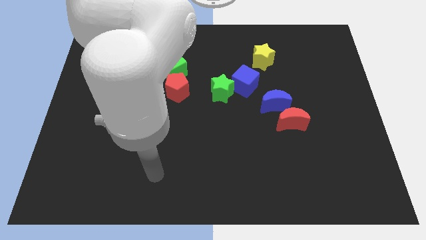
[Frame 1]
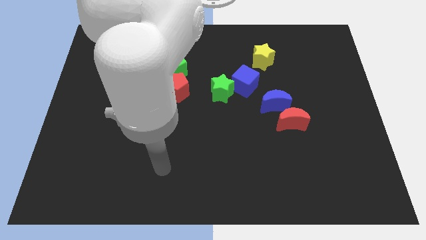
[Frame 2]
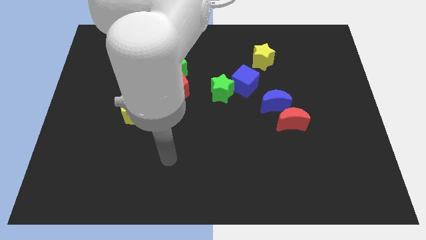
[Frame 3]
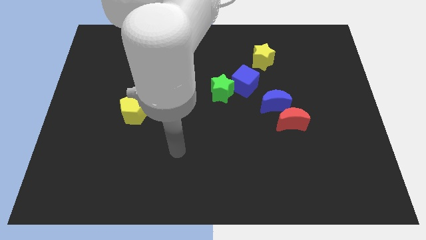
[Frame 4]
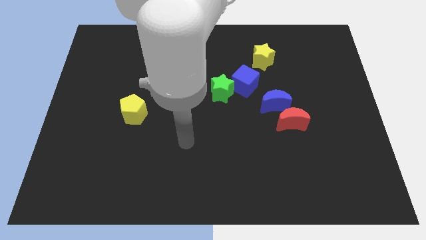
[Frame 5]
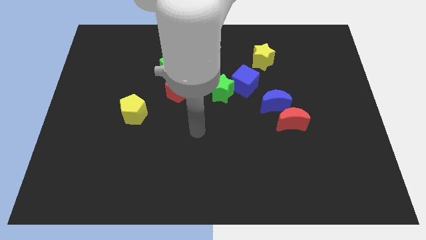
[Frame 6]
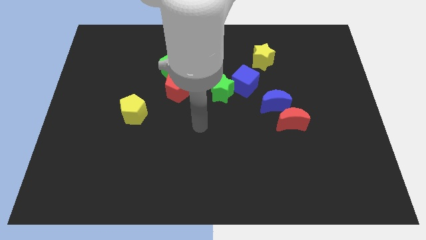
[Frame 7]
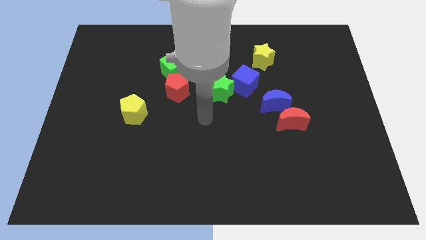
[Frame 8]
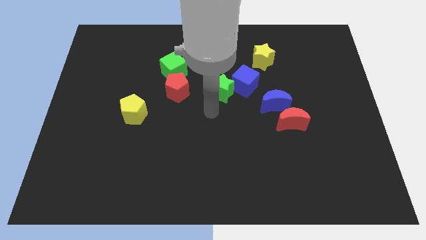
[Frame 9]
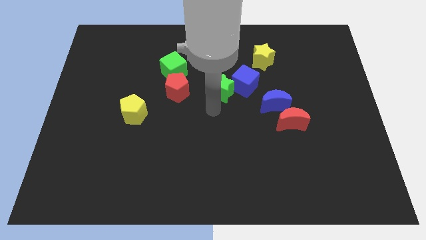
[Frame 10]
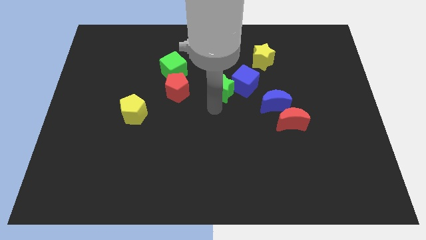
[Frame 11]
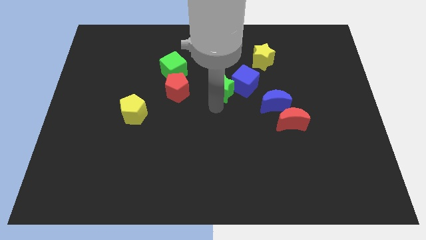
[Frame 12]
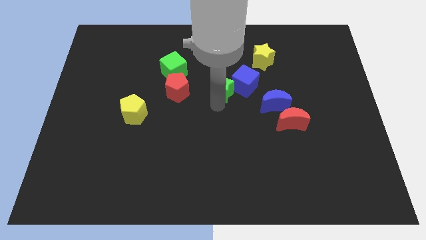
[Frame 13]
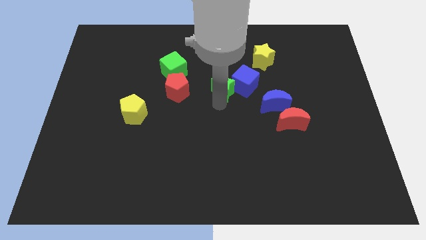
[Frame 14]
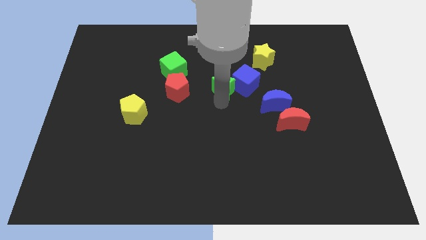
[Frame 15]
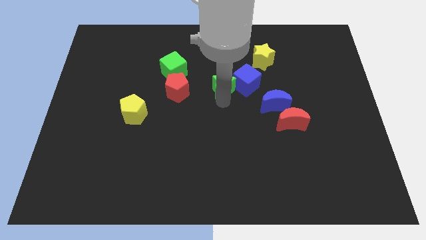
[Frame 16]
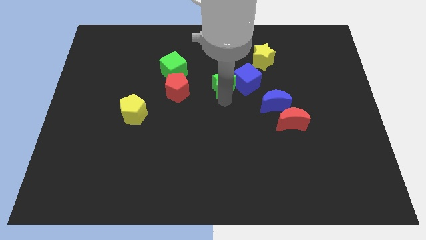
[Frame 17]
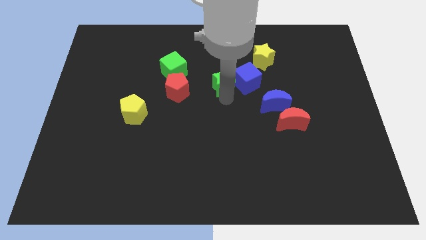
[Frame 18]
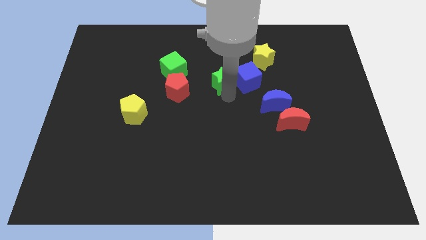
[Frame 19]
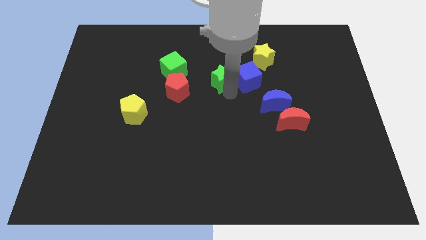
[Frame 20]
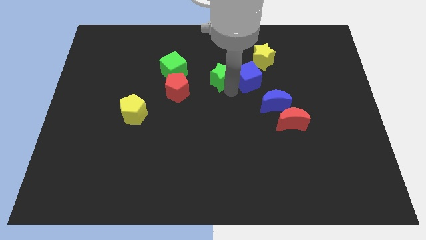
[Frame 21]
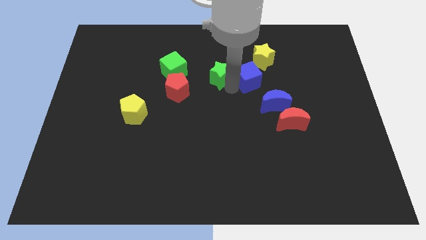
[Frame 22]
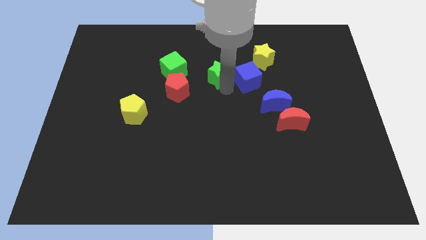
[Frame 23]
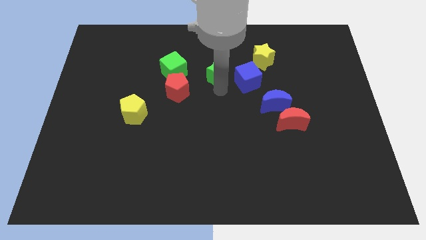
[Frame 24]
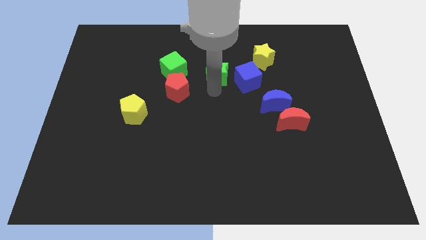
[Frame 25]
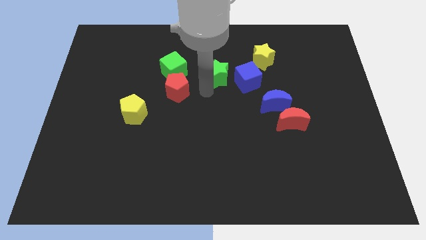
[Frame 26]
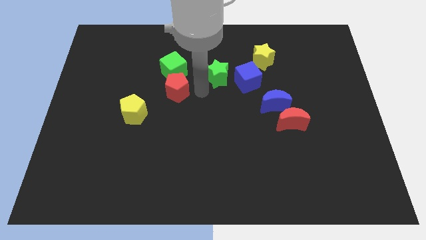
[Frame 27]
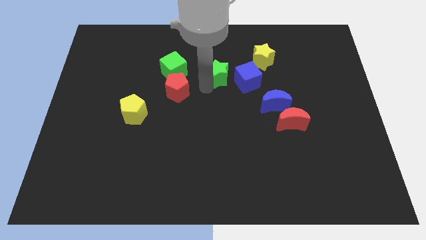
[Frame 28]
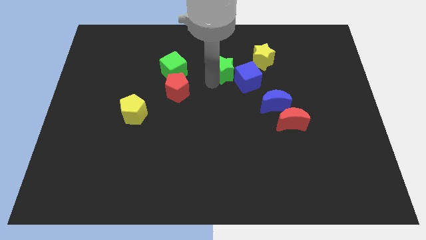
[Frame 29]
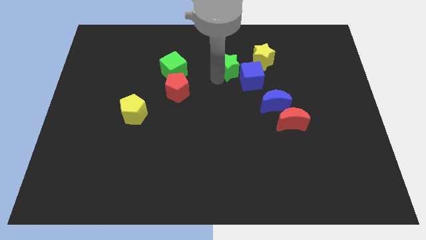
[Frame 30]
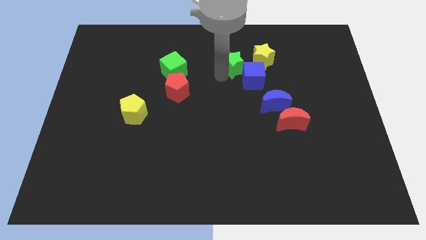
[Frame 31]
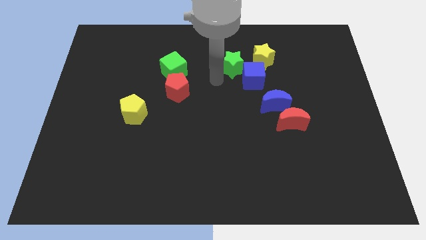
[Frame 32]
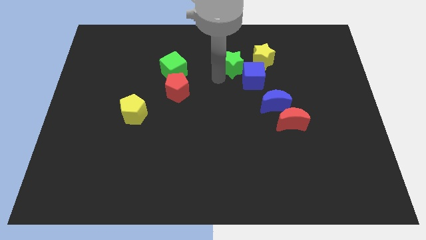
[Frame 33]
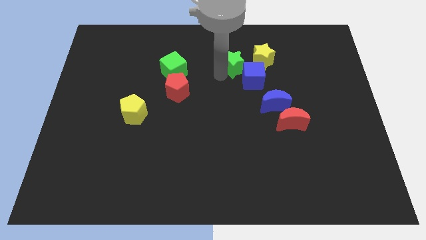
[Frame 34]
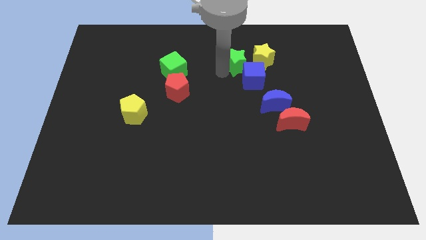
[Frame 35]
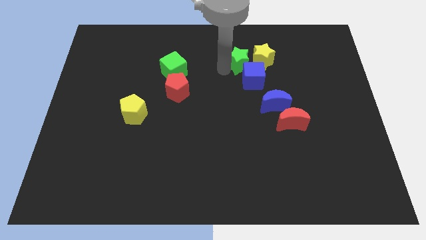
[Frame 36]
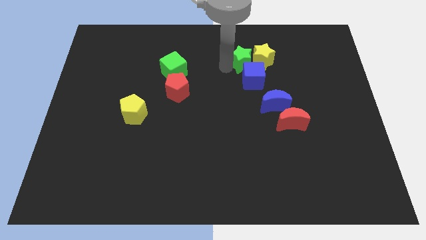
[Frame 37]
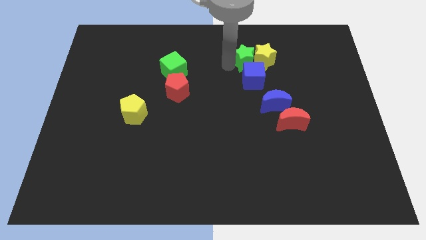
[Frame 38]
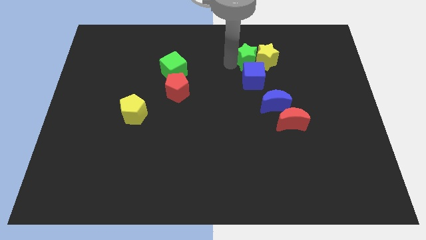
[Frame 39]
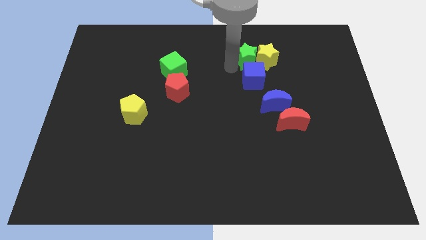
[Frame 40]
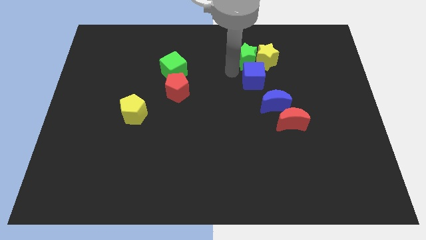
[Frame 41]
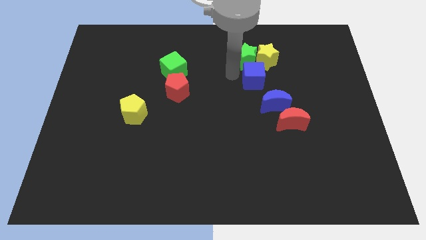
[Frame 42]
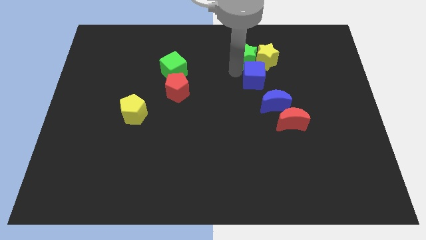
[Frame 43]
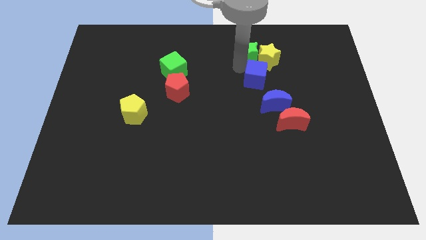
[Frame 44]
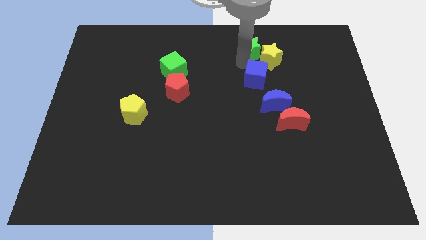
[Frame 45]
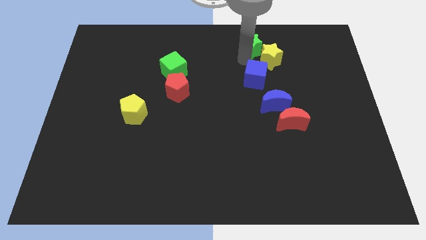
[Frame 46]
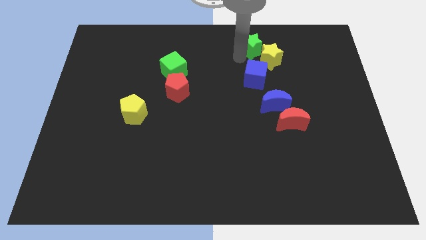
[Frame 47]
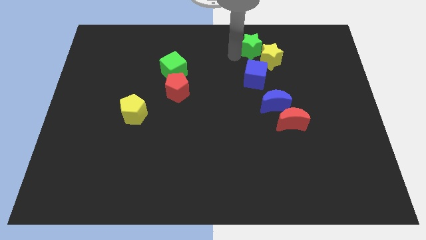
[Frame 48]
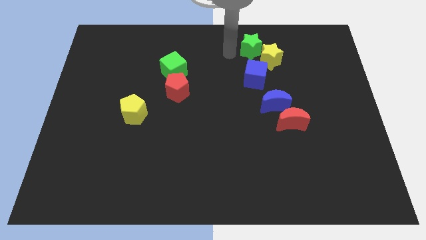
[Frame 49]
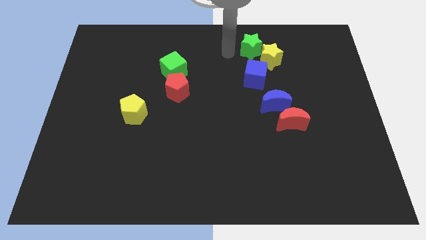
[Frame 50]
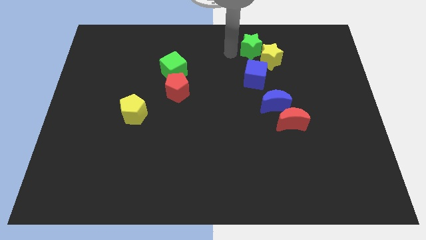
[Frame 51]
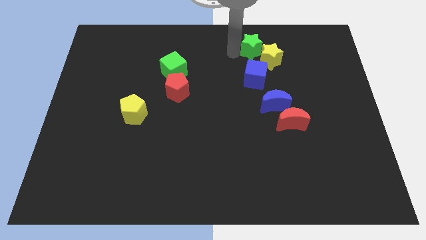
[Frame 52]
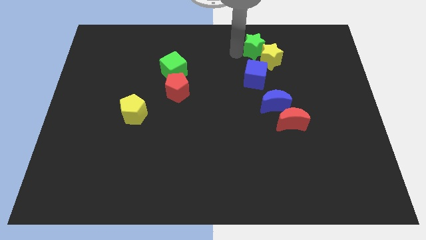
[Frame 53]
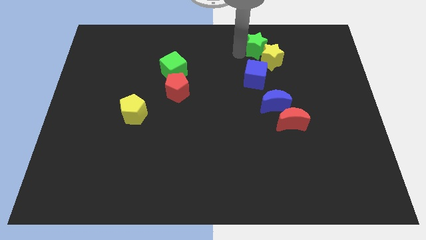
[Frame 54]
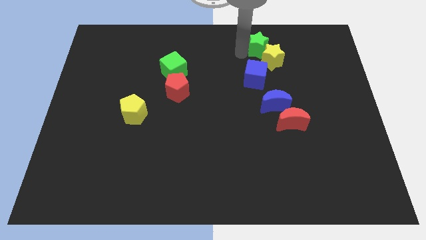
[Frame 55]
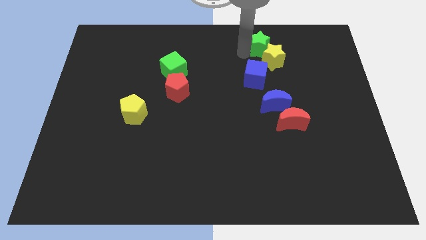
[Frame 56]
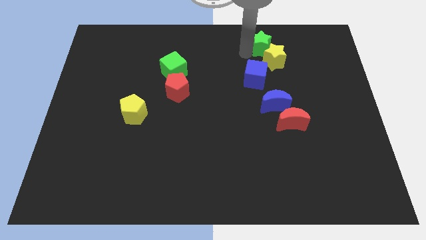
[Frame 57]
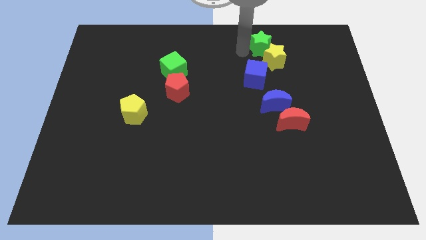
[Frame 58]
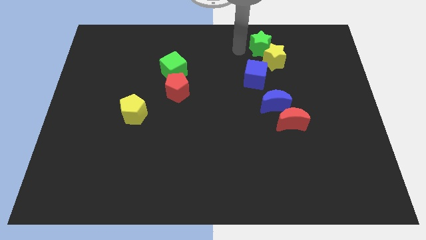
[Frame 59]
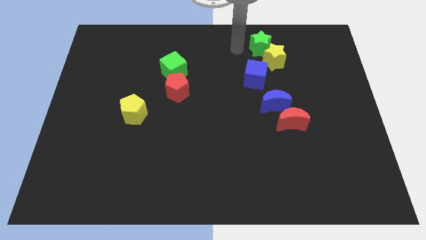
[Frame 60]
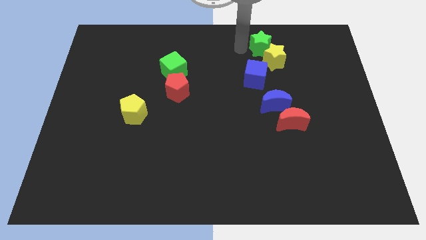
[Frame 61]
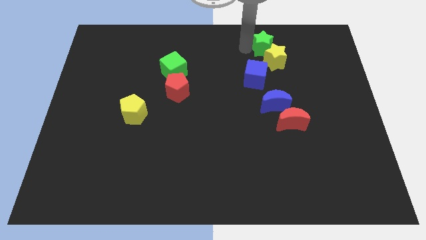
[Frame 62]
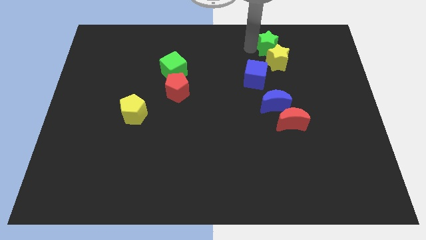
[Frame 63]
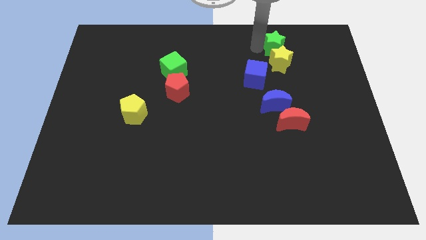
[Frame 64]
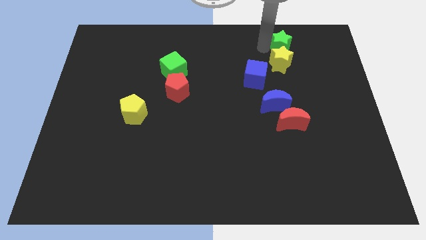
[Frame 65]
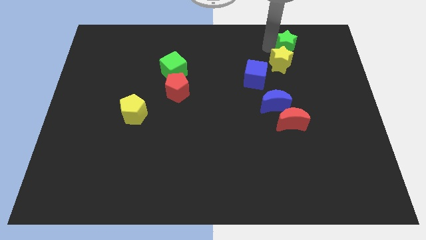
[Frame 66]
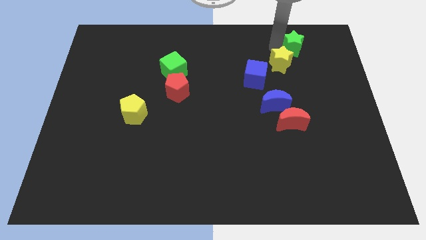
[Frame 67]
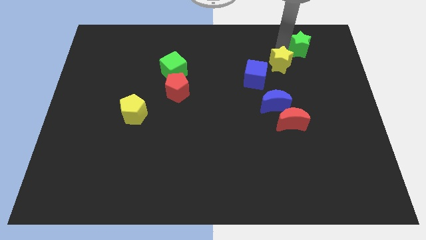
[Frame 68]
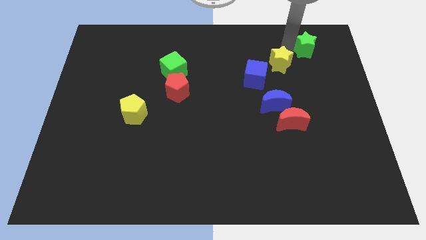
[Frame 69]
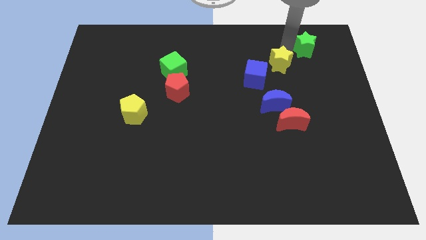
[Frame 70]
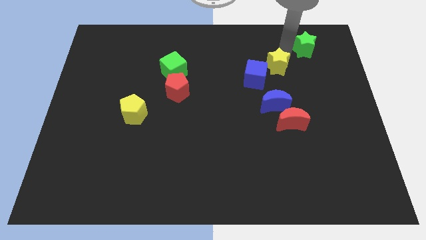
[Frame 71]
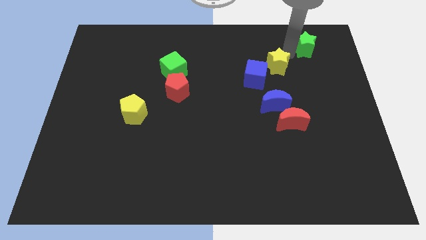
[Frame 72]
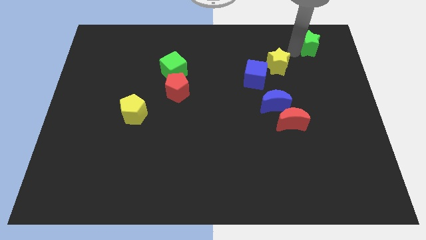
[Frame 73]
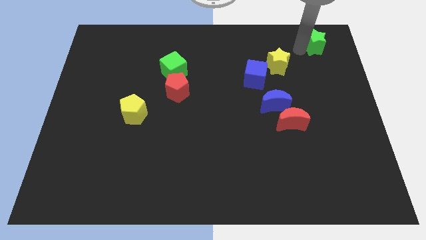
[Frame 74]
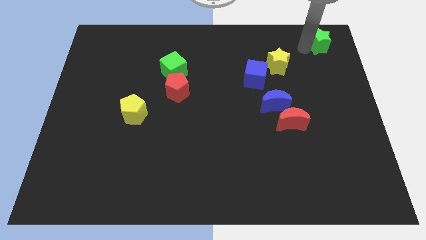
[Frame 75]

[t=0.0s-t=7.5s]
push the green star to the upper right corner
